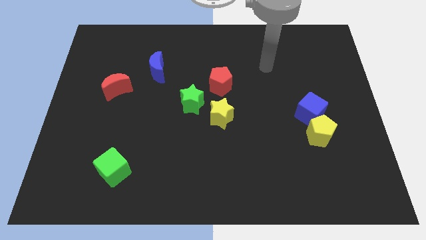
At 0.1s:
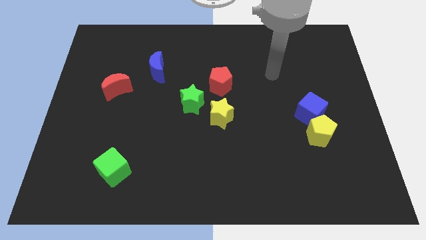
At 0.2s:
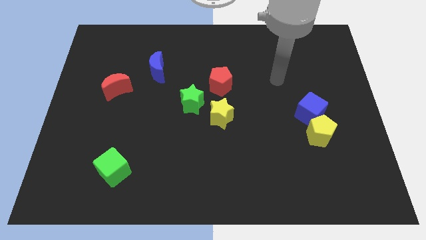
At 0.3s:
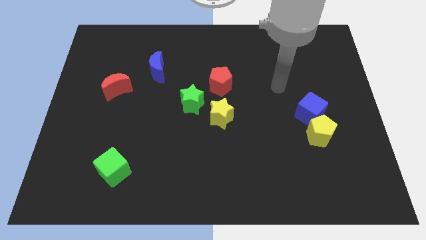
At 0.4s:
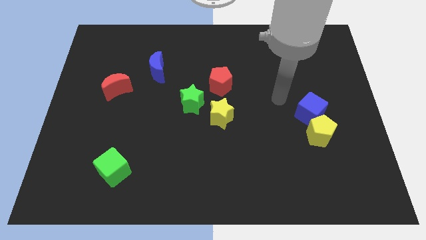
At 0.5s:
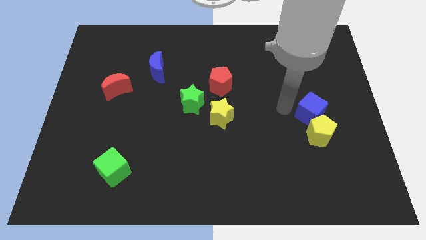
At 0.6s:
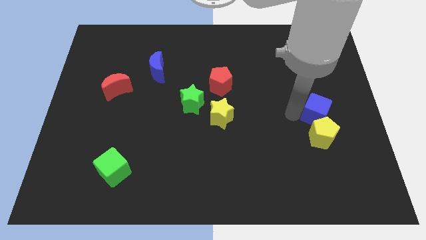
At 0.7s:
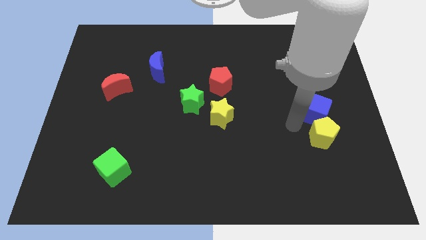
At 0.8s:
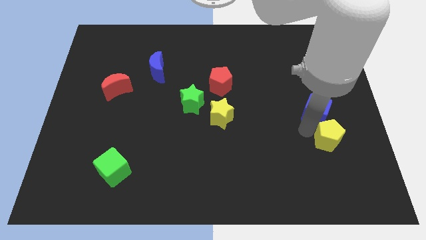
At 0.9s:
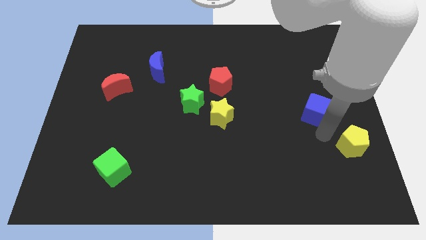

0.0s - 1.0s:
move the blue cube away from the yellow pentagon

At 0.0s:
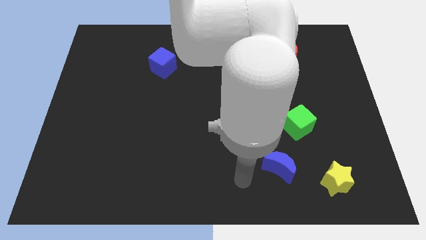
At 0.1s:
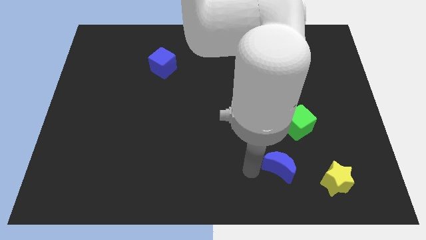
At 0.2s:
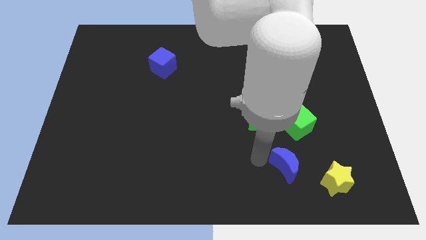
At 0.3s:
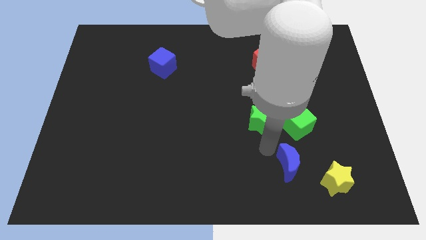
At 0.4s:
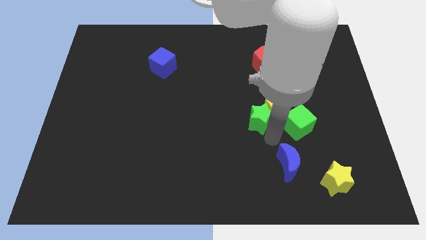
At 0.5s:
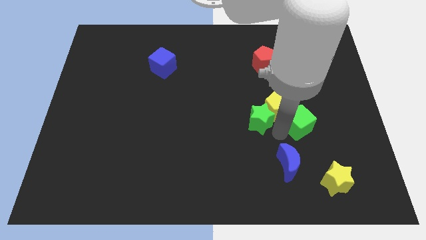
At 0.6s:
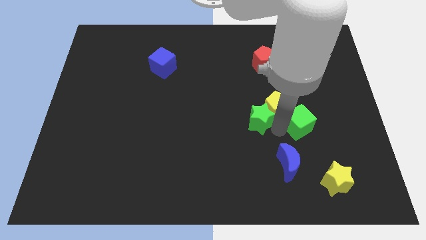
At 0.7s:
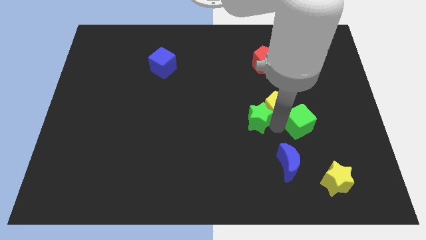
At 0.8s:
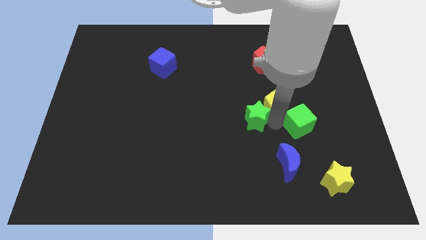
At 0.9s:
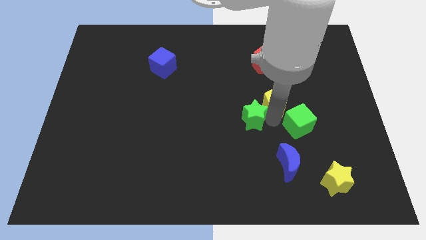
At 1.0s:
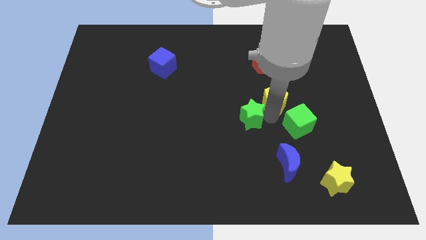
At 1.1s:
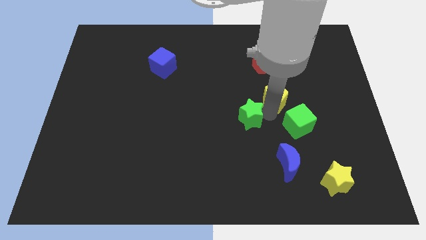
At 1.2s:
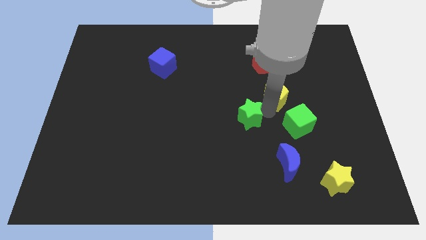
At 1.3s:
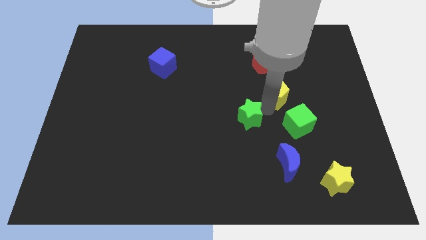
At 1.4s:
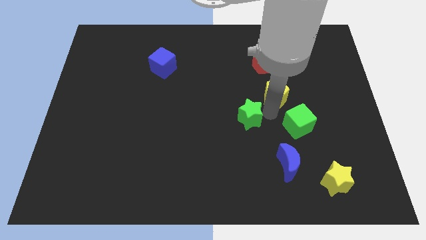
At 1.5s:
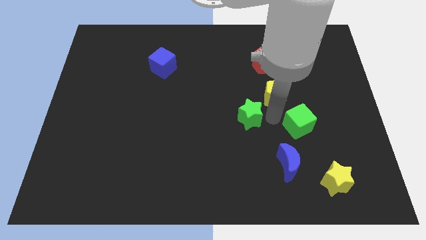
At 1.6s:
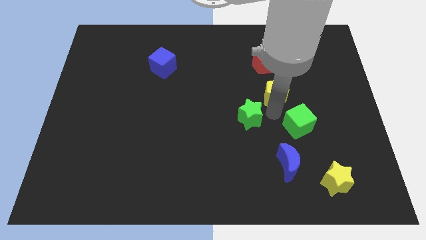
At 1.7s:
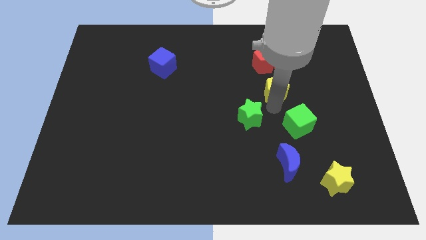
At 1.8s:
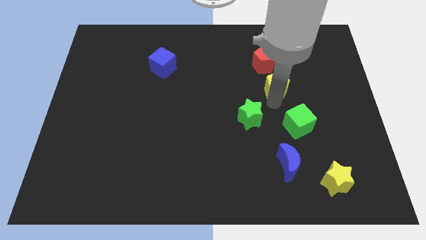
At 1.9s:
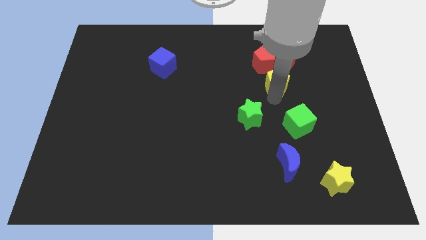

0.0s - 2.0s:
pull the yellow pentagon apart from the green star and green cube

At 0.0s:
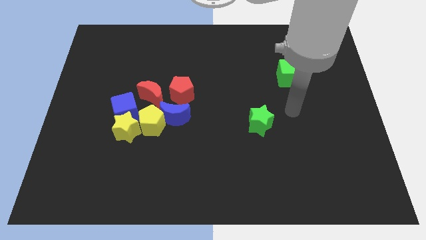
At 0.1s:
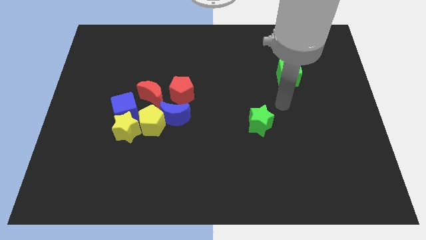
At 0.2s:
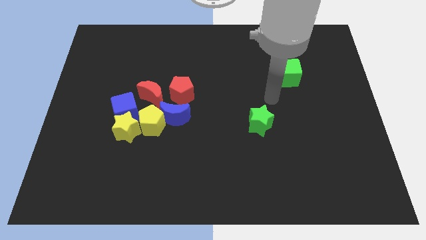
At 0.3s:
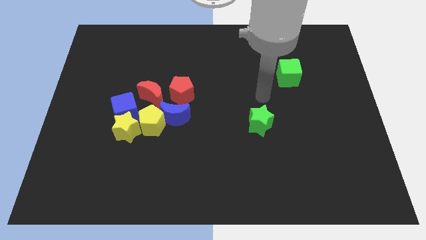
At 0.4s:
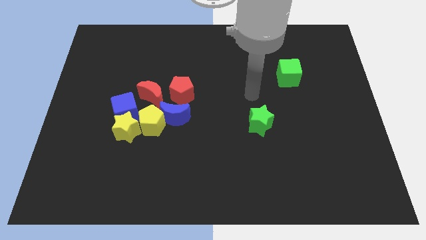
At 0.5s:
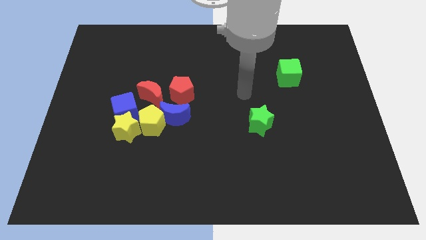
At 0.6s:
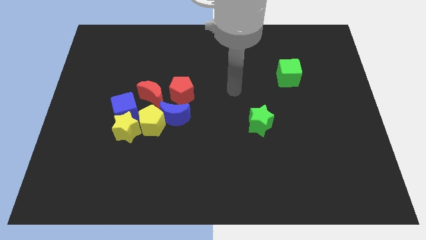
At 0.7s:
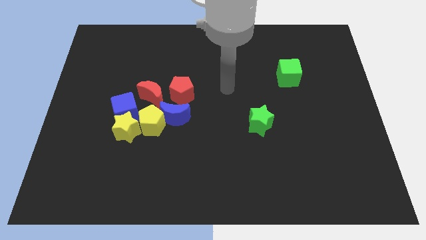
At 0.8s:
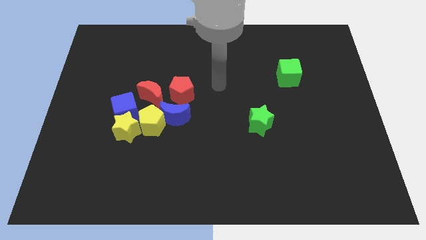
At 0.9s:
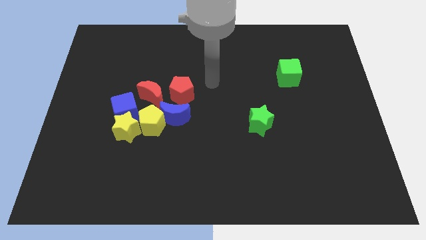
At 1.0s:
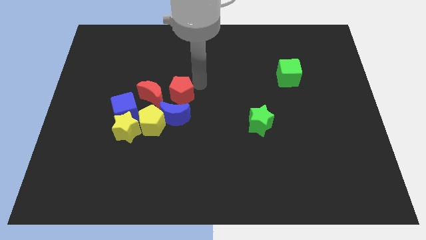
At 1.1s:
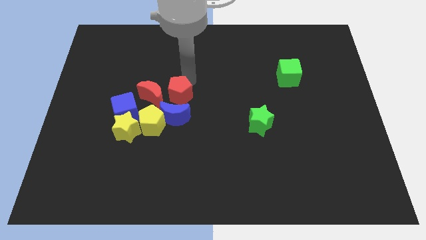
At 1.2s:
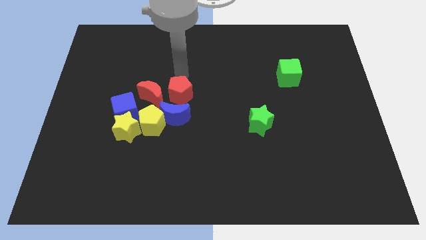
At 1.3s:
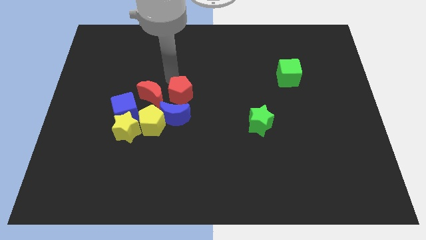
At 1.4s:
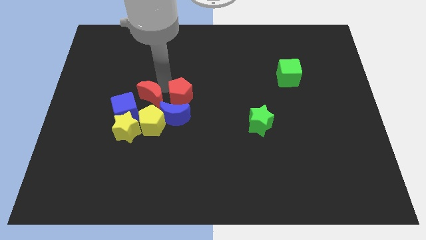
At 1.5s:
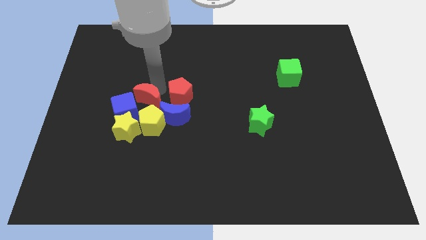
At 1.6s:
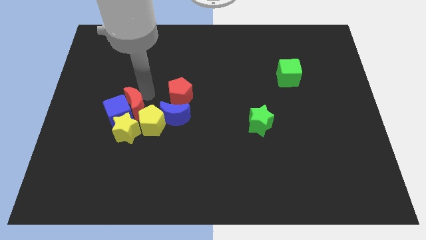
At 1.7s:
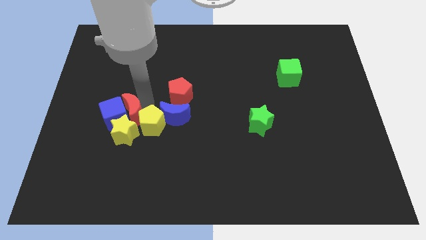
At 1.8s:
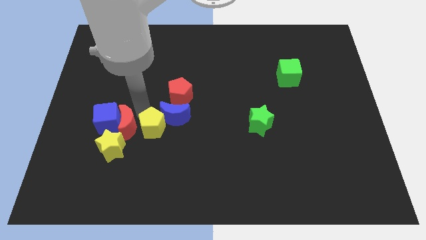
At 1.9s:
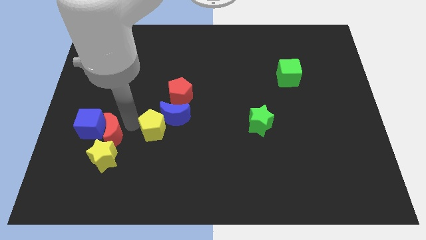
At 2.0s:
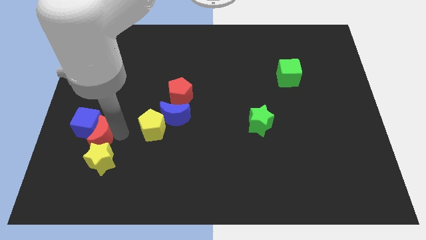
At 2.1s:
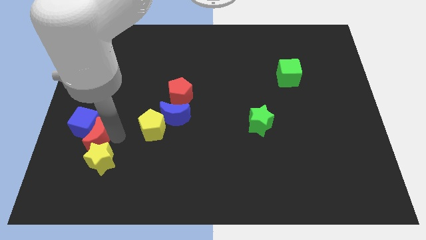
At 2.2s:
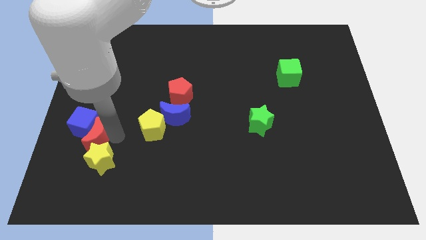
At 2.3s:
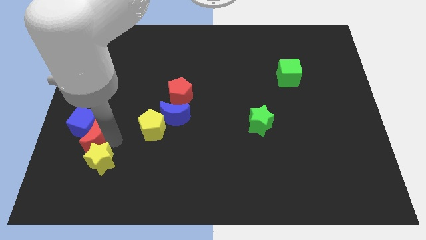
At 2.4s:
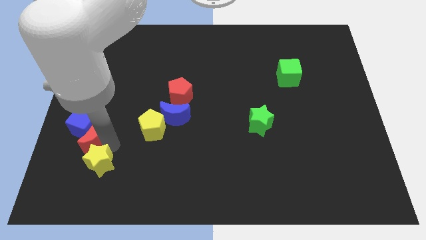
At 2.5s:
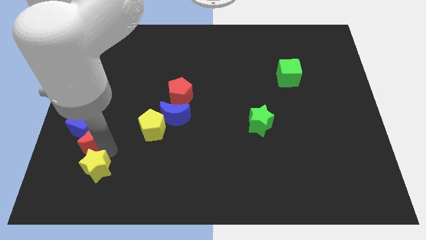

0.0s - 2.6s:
pull the yellow star apart from the blue cube and yellow pentagon

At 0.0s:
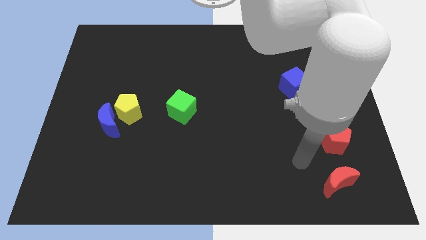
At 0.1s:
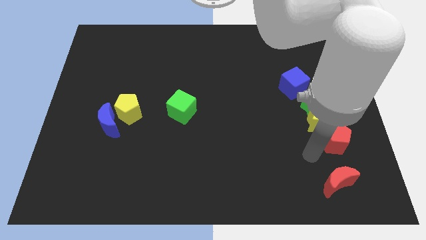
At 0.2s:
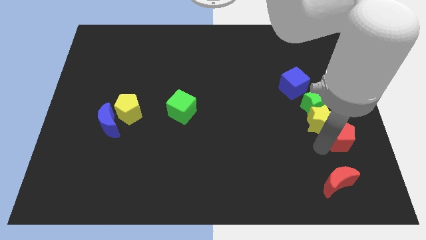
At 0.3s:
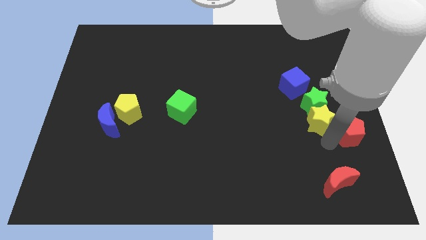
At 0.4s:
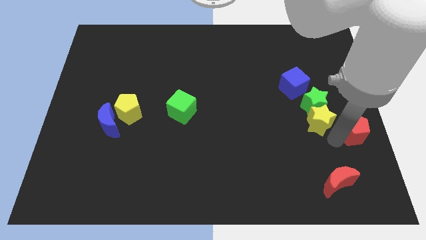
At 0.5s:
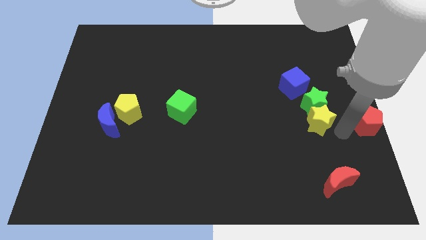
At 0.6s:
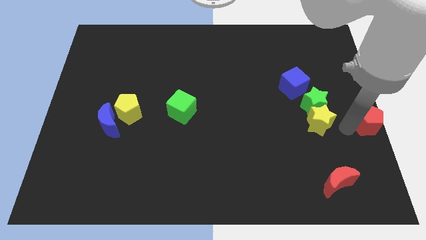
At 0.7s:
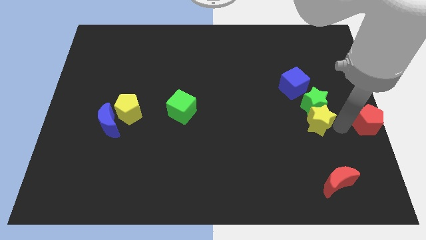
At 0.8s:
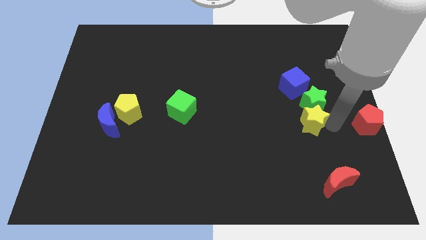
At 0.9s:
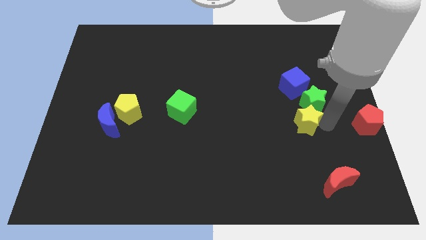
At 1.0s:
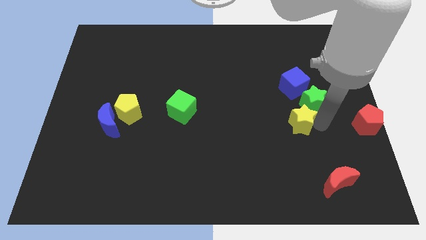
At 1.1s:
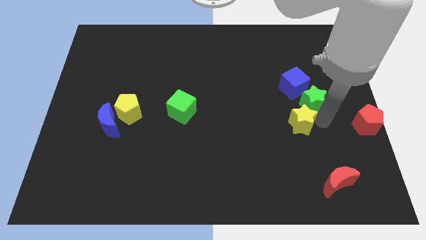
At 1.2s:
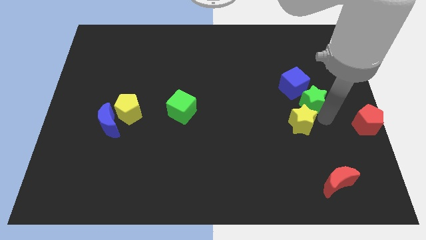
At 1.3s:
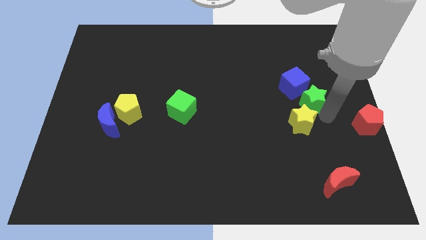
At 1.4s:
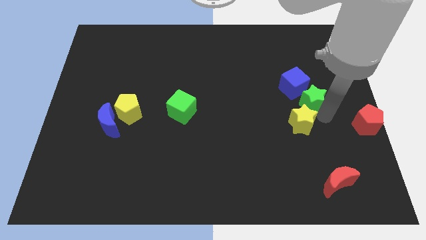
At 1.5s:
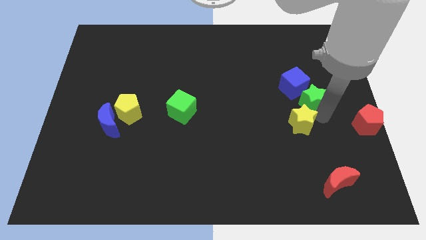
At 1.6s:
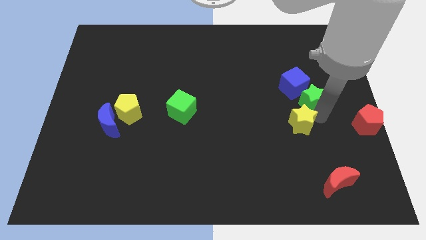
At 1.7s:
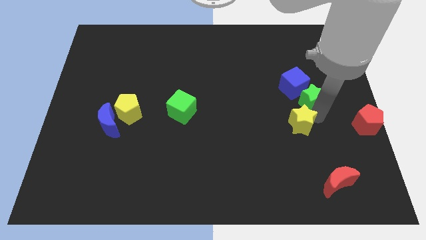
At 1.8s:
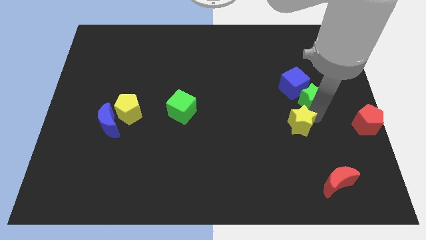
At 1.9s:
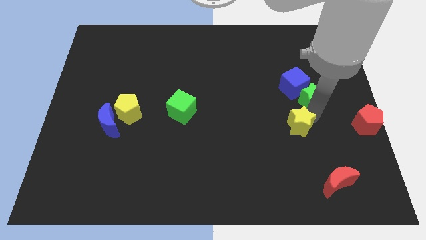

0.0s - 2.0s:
pull the yellow star apart from the green star and red pentagon

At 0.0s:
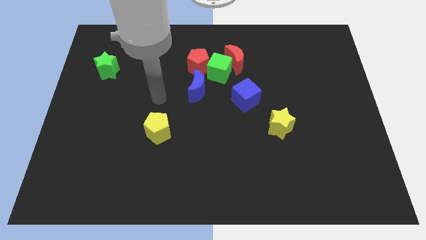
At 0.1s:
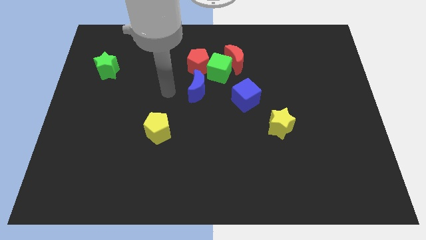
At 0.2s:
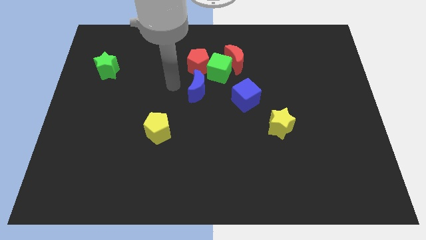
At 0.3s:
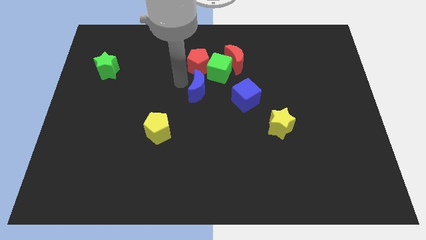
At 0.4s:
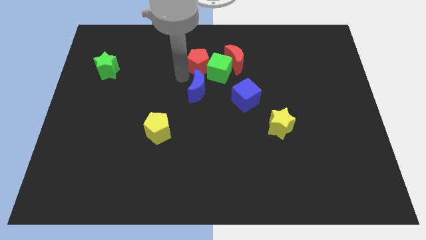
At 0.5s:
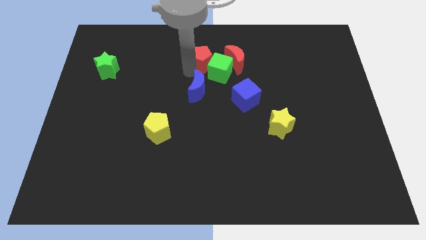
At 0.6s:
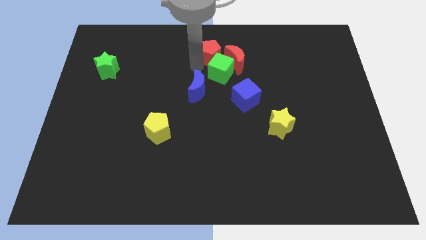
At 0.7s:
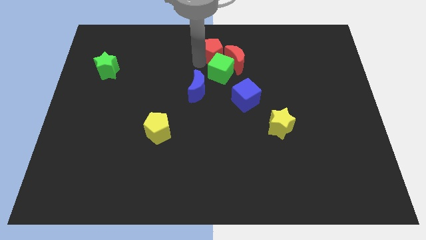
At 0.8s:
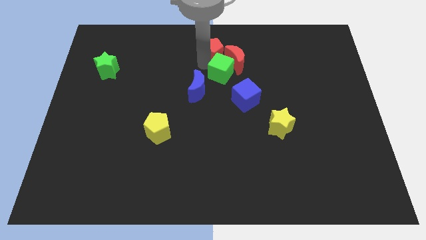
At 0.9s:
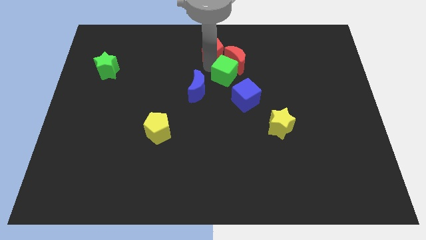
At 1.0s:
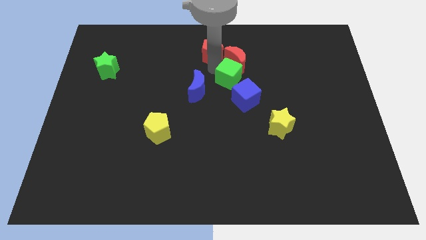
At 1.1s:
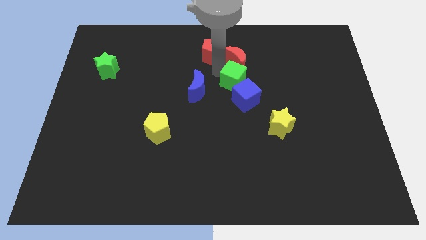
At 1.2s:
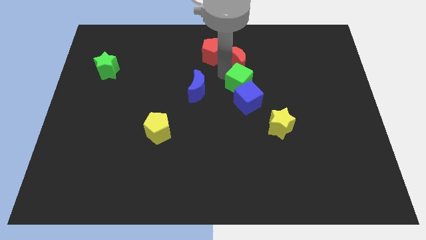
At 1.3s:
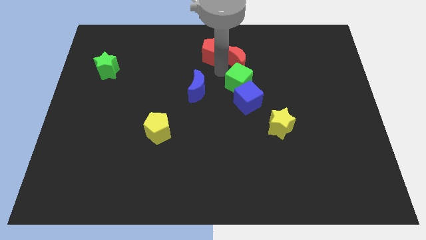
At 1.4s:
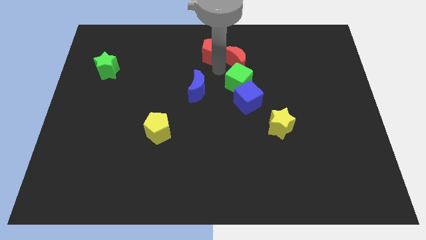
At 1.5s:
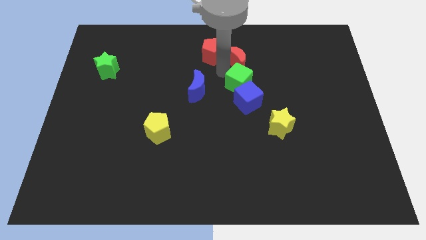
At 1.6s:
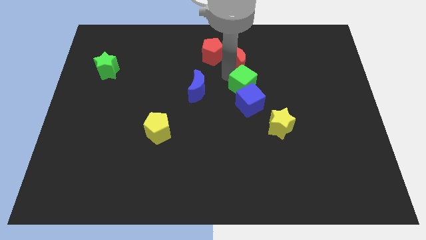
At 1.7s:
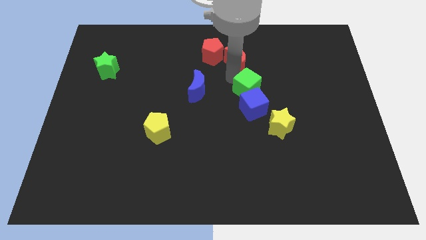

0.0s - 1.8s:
separate the green cube from the group of blocks
